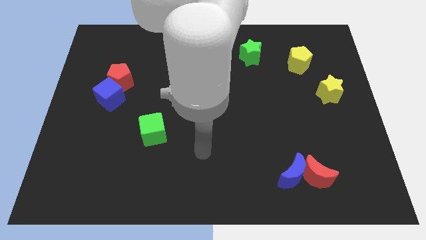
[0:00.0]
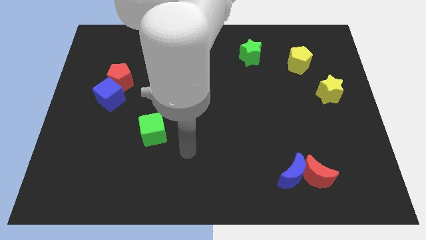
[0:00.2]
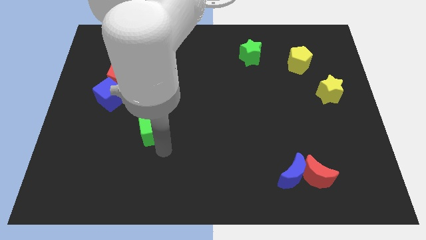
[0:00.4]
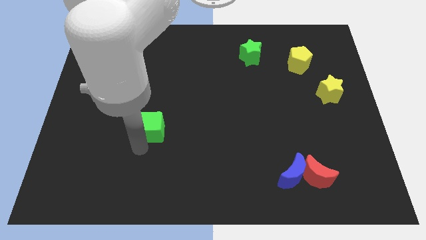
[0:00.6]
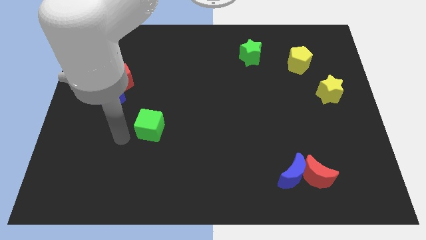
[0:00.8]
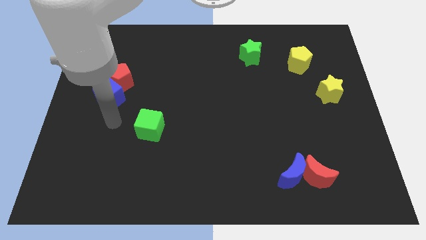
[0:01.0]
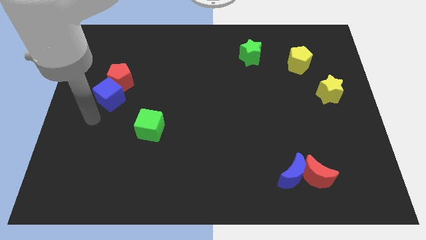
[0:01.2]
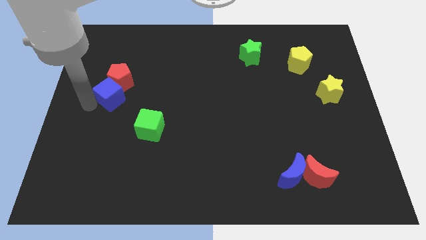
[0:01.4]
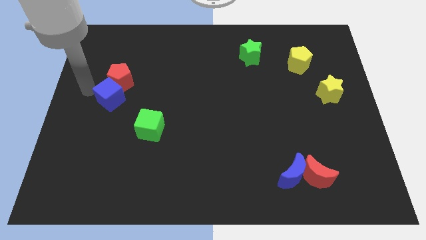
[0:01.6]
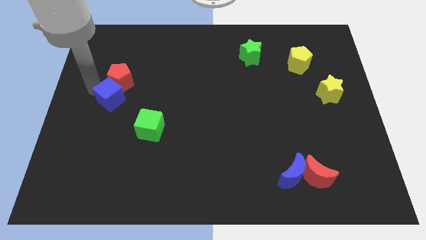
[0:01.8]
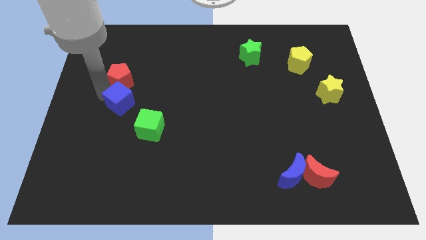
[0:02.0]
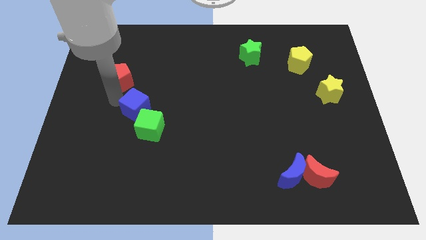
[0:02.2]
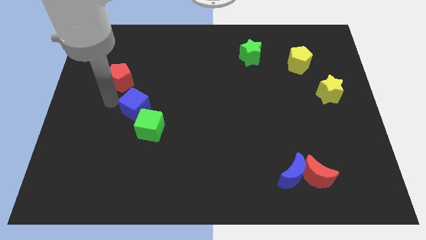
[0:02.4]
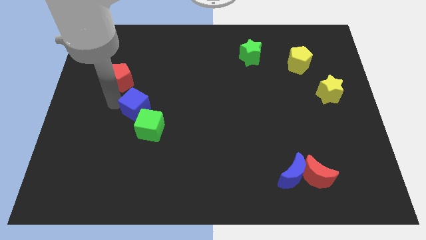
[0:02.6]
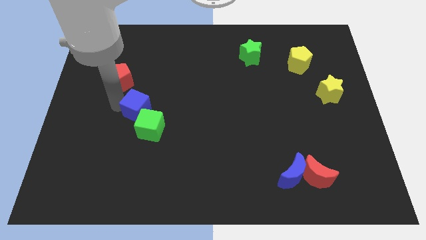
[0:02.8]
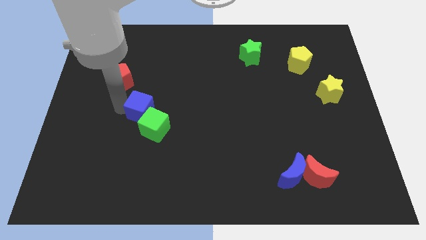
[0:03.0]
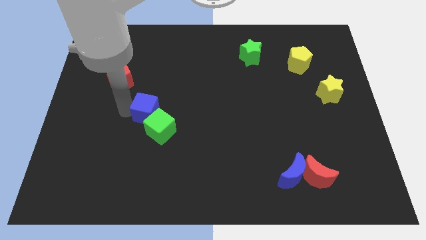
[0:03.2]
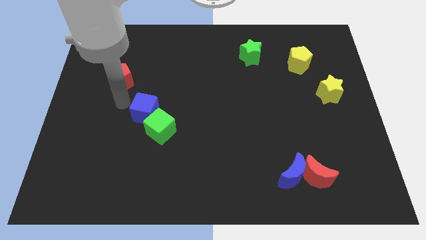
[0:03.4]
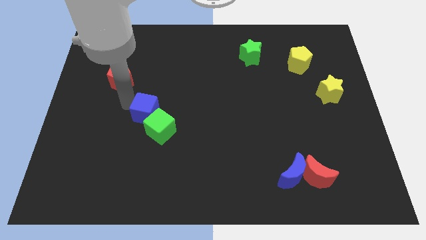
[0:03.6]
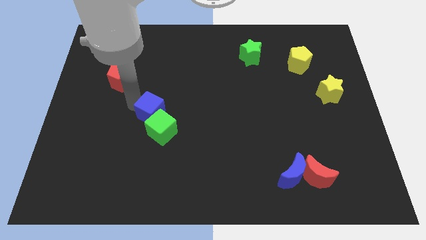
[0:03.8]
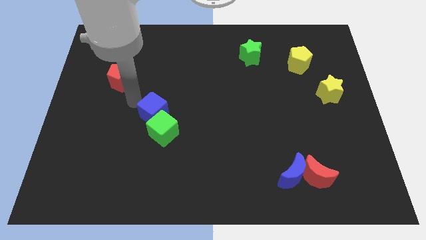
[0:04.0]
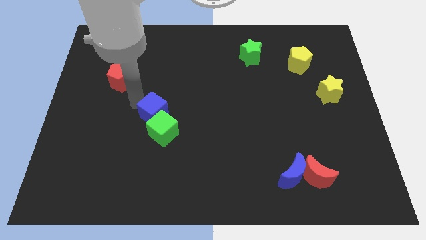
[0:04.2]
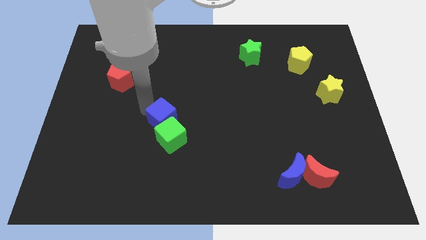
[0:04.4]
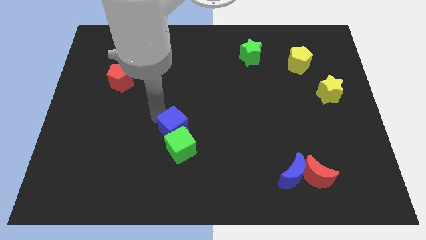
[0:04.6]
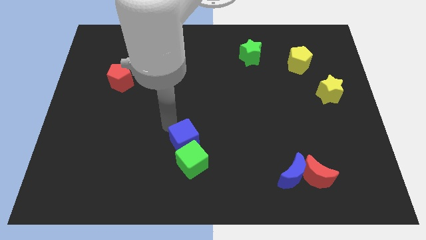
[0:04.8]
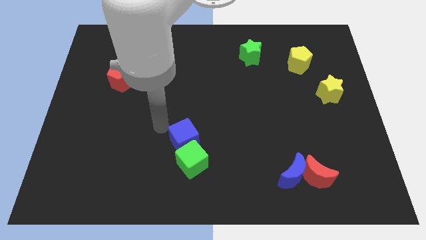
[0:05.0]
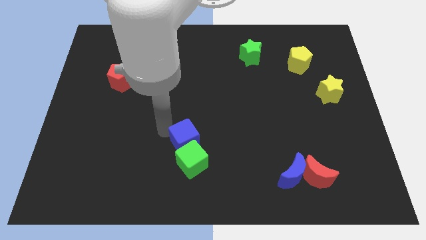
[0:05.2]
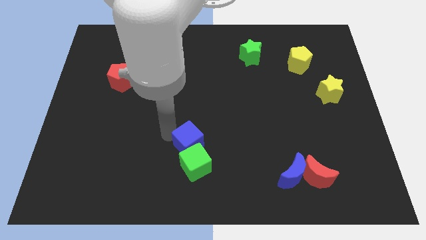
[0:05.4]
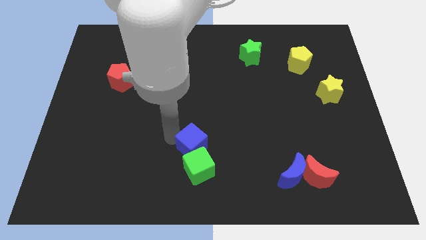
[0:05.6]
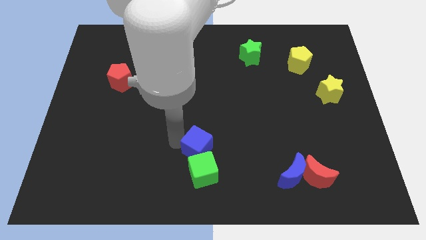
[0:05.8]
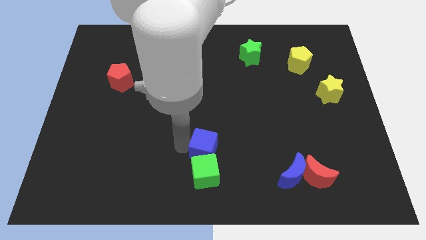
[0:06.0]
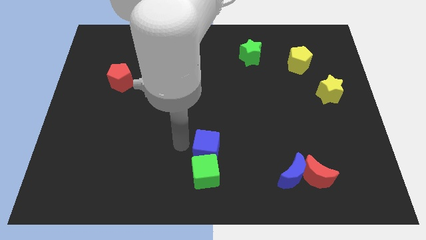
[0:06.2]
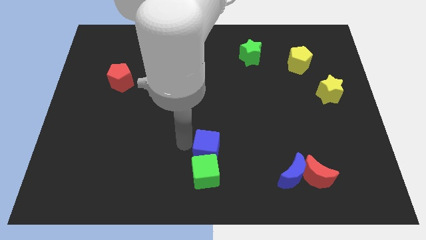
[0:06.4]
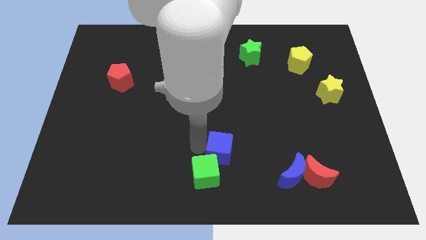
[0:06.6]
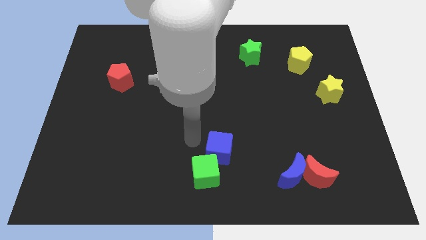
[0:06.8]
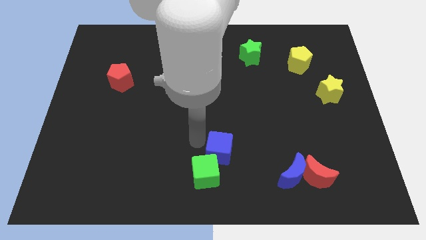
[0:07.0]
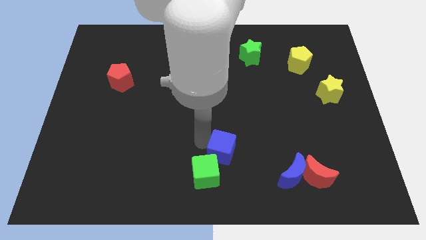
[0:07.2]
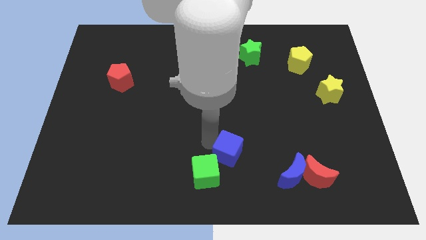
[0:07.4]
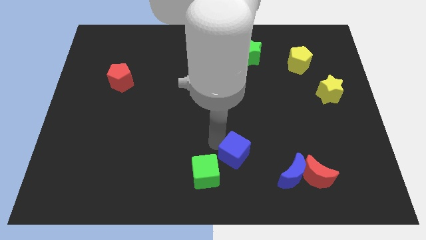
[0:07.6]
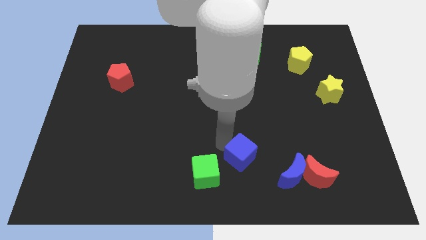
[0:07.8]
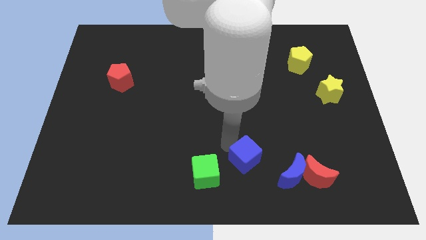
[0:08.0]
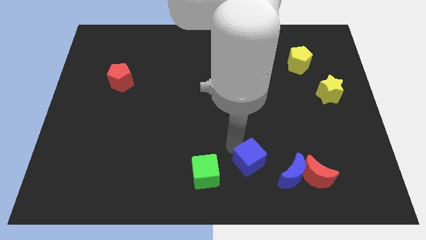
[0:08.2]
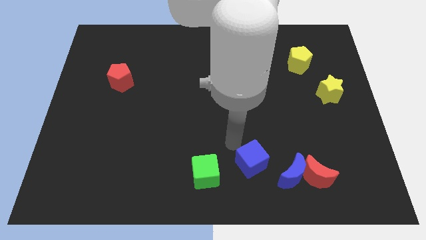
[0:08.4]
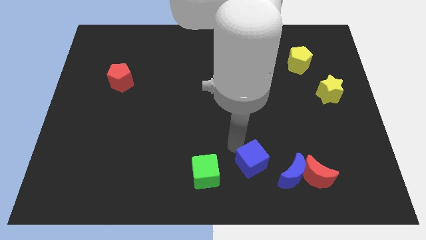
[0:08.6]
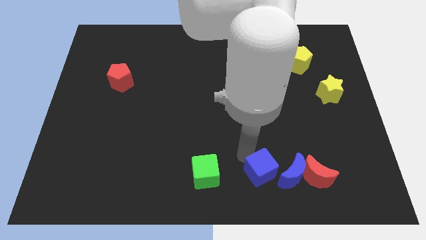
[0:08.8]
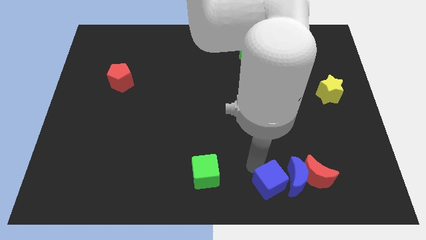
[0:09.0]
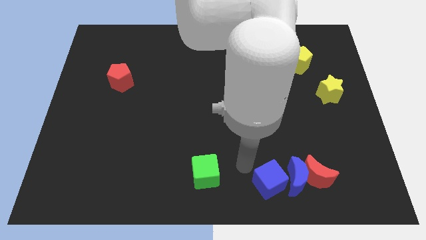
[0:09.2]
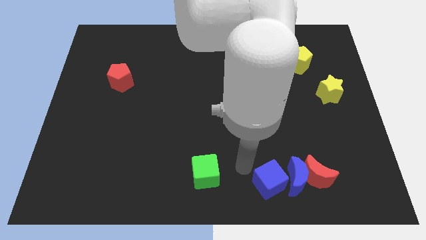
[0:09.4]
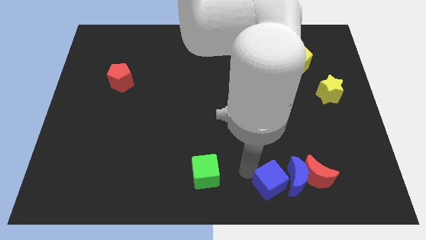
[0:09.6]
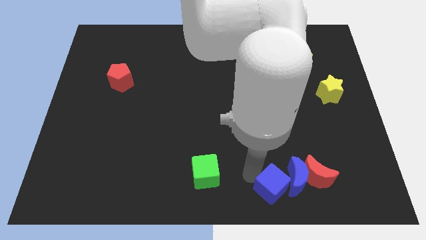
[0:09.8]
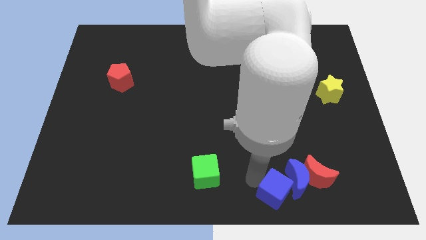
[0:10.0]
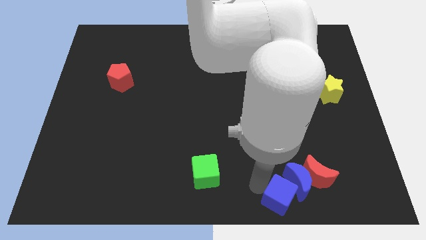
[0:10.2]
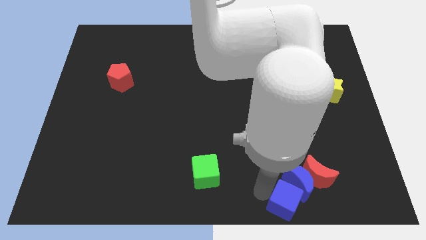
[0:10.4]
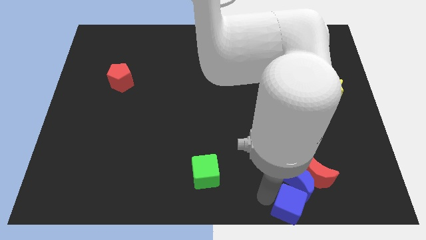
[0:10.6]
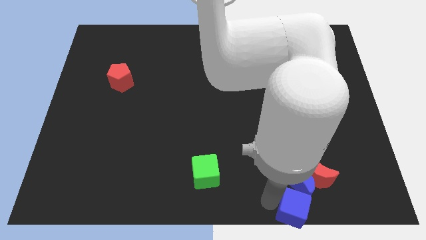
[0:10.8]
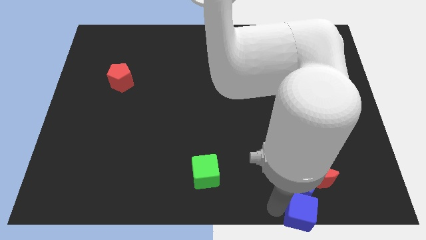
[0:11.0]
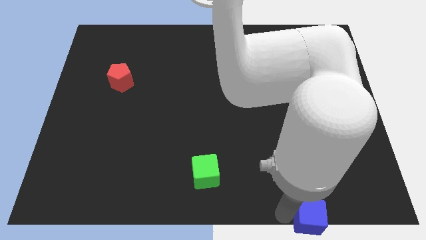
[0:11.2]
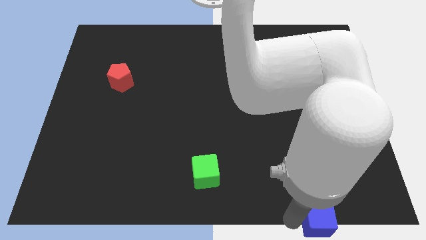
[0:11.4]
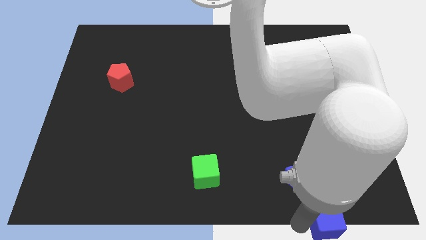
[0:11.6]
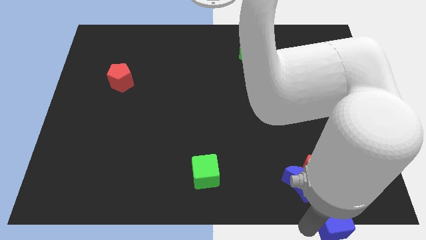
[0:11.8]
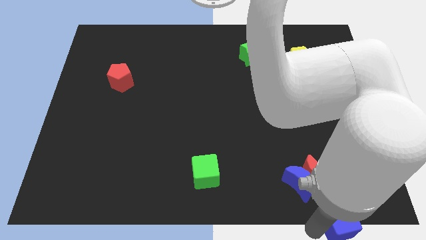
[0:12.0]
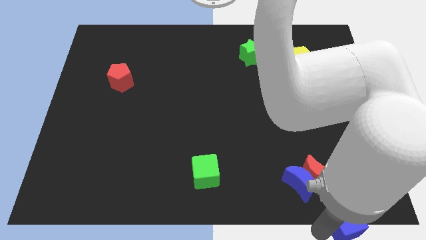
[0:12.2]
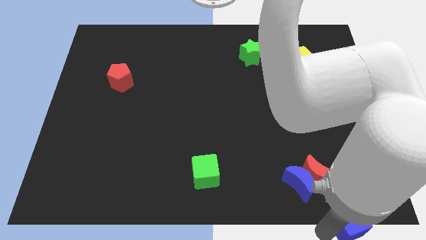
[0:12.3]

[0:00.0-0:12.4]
move the blue cube to the bottom right

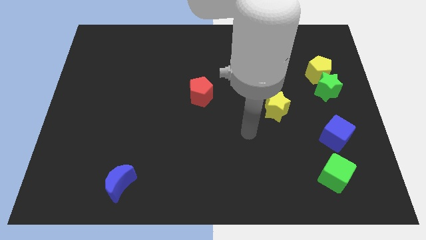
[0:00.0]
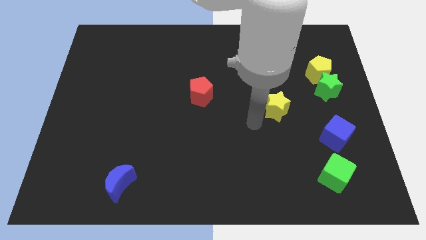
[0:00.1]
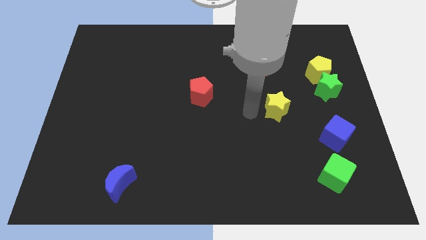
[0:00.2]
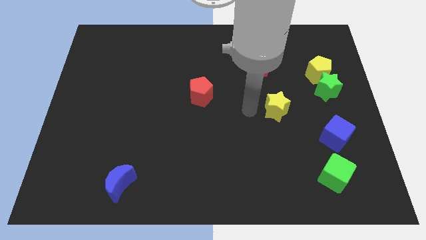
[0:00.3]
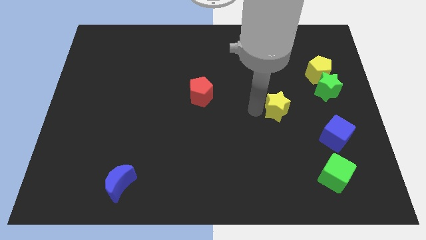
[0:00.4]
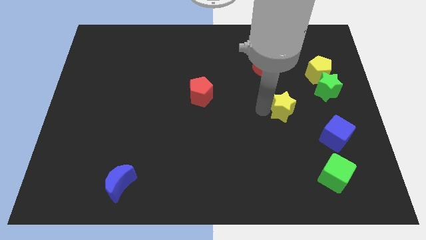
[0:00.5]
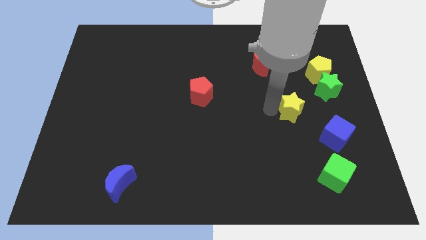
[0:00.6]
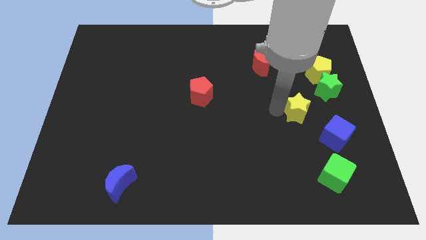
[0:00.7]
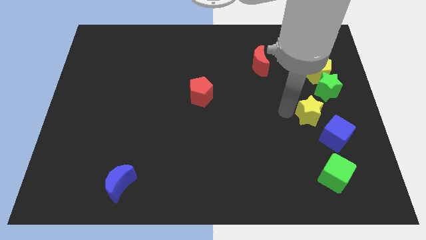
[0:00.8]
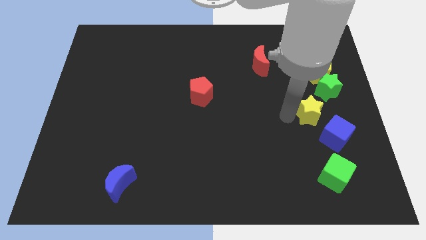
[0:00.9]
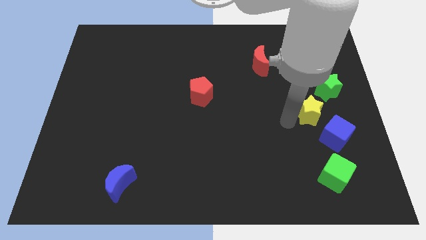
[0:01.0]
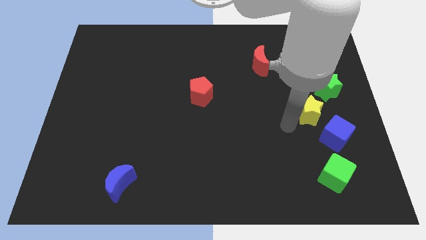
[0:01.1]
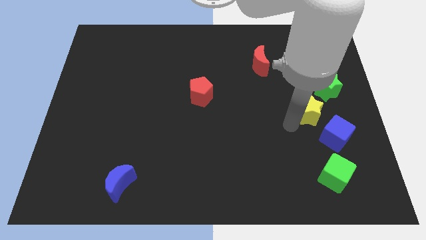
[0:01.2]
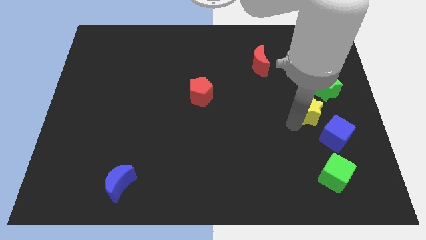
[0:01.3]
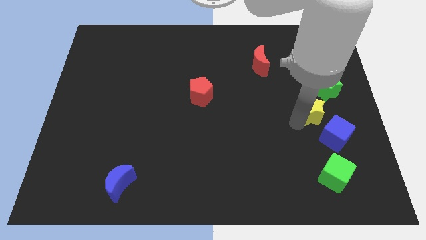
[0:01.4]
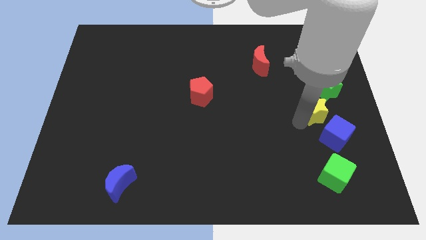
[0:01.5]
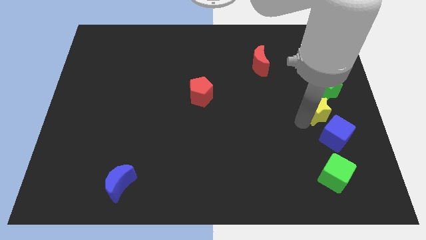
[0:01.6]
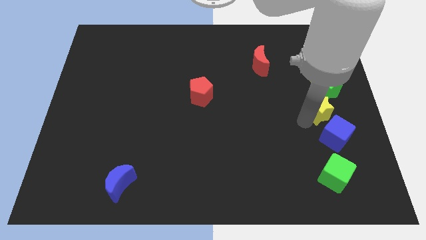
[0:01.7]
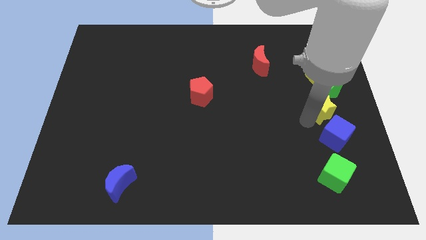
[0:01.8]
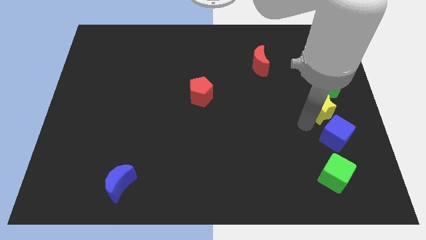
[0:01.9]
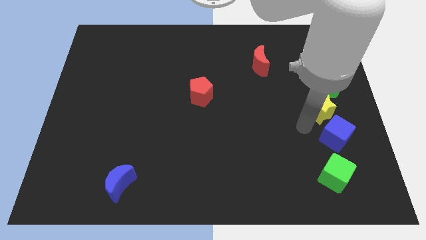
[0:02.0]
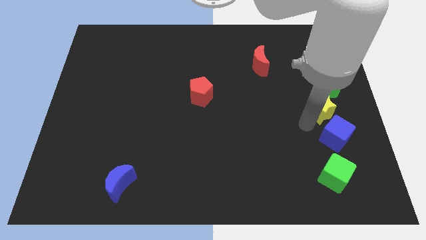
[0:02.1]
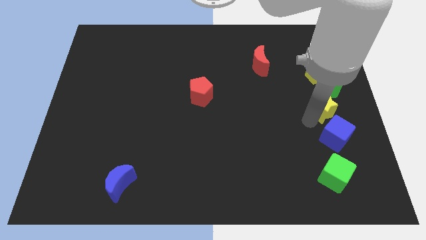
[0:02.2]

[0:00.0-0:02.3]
put the yellow star to the right side of the board
